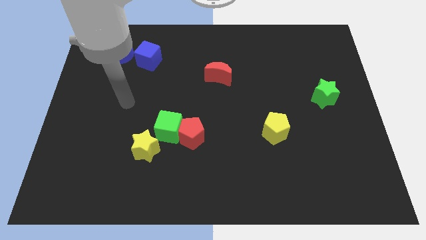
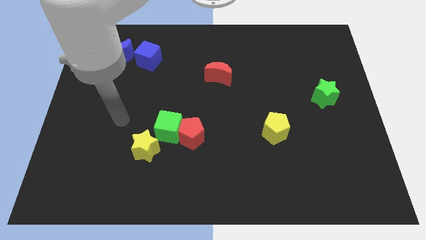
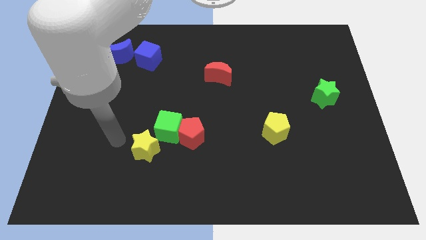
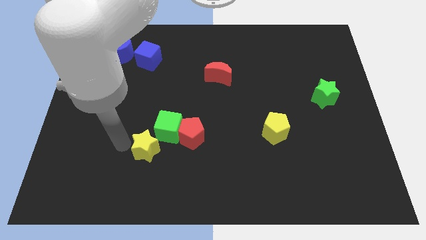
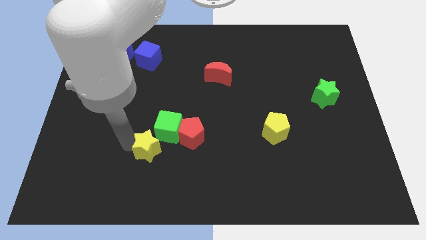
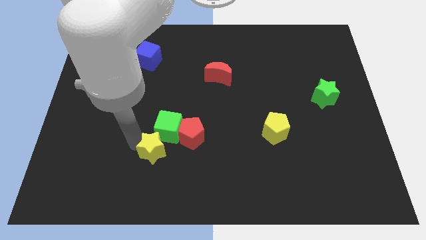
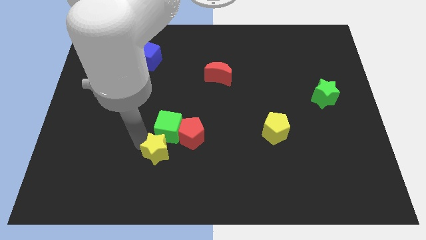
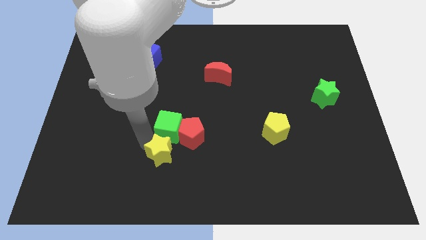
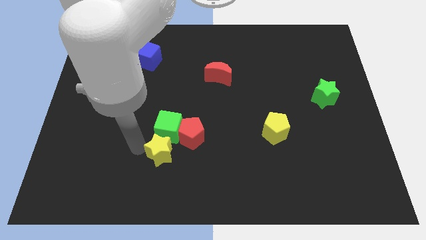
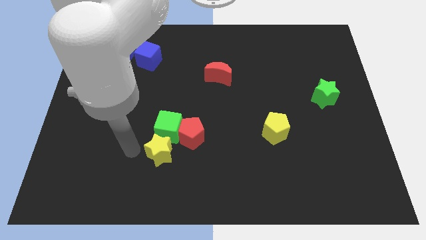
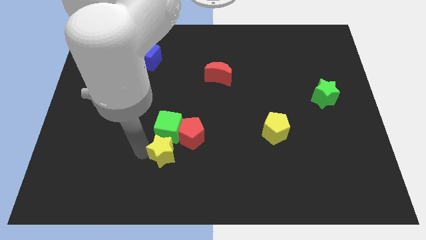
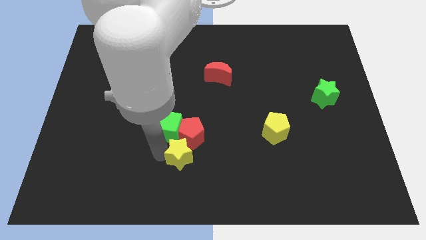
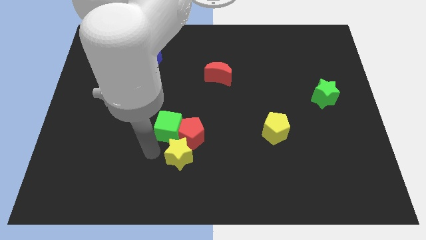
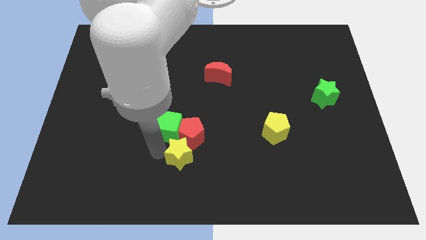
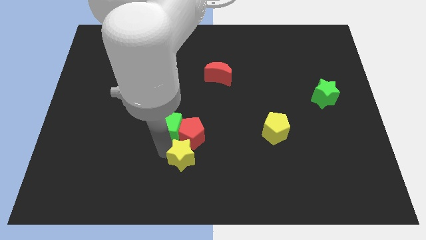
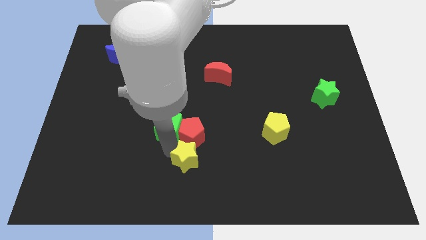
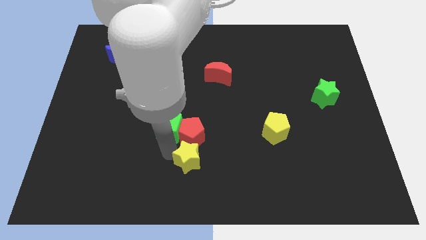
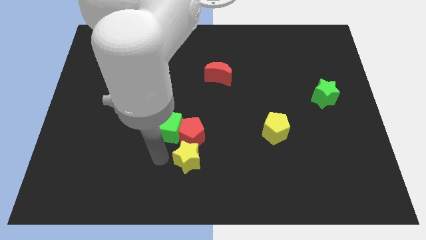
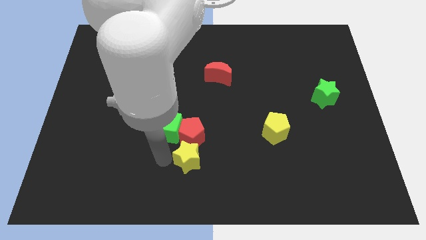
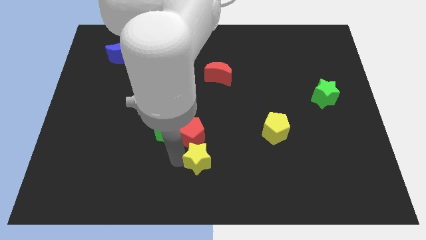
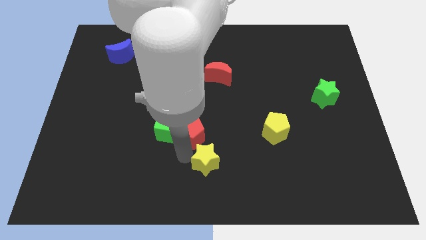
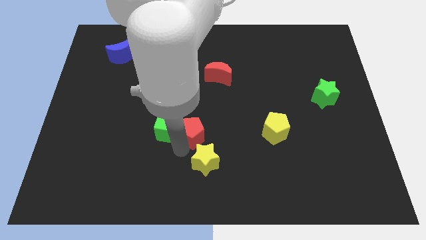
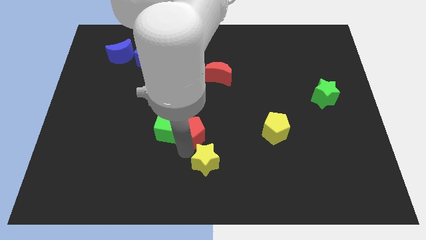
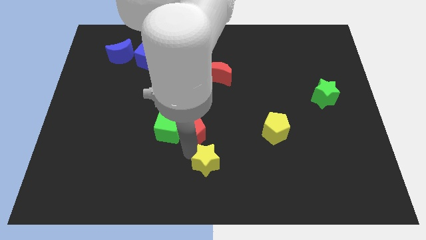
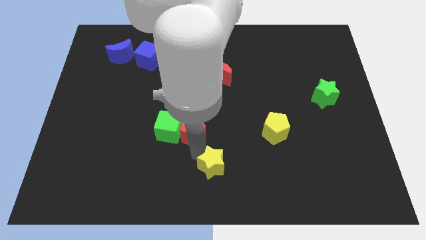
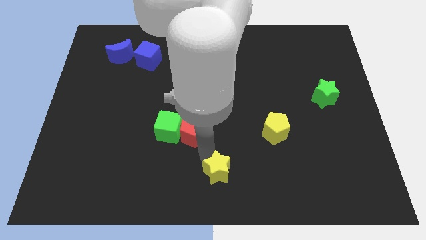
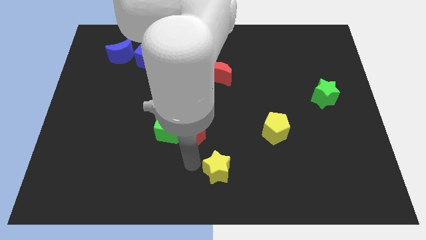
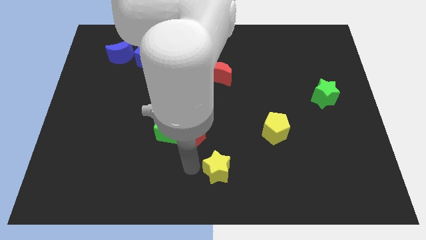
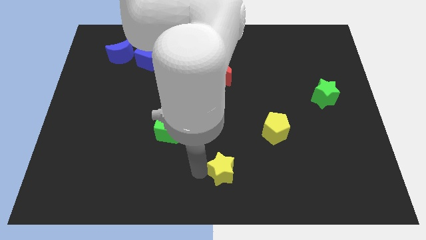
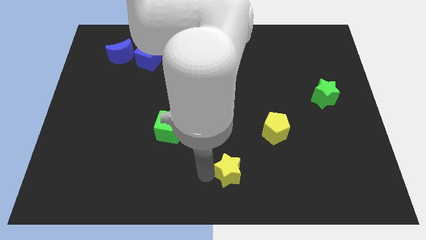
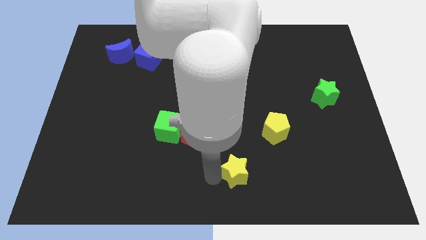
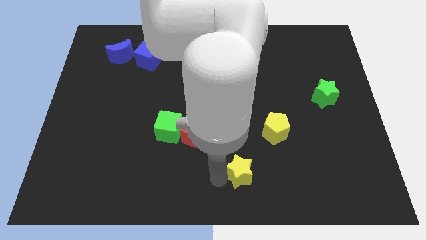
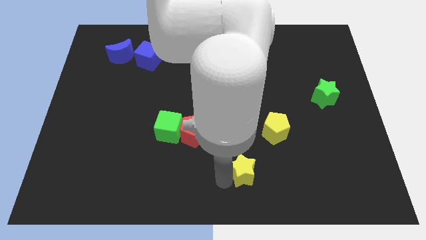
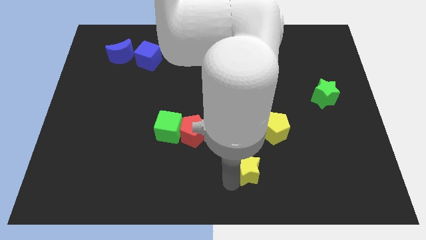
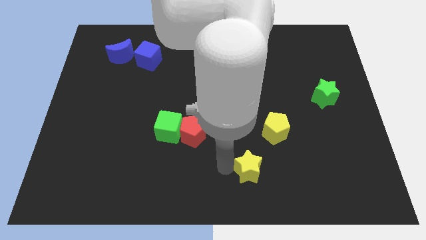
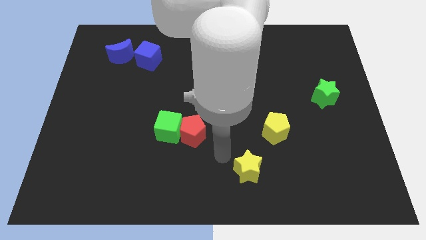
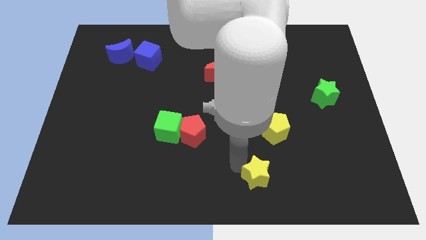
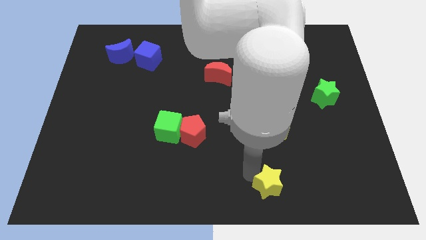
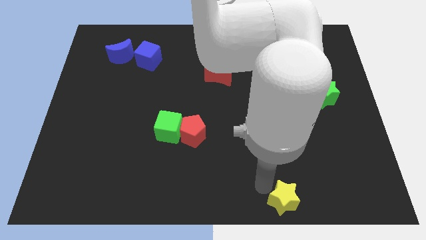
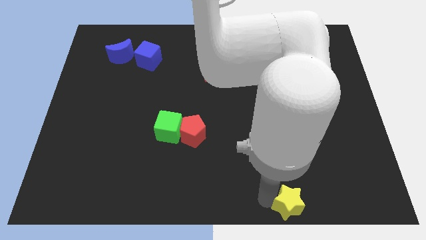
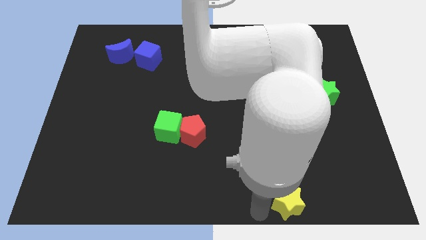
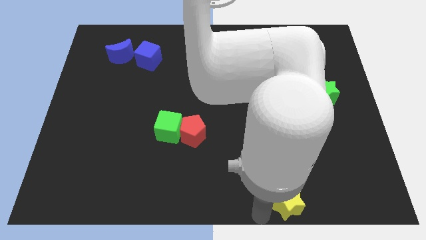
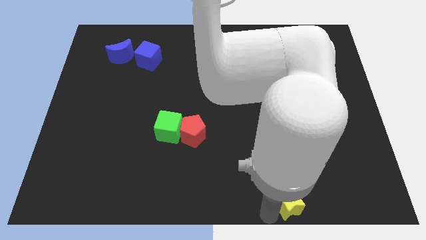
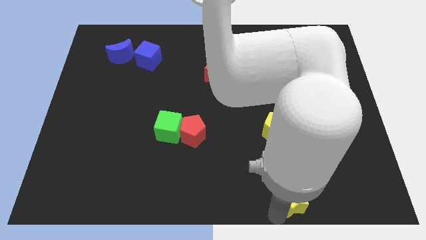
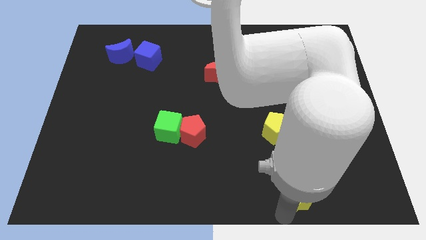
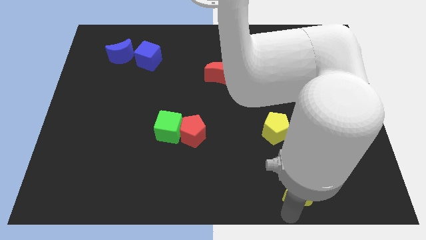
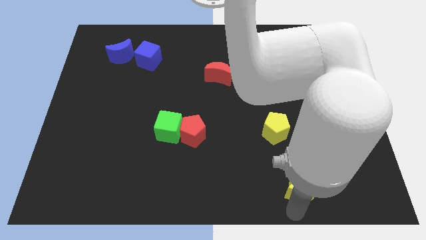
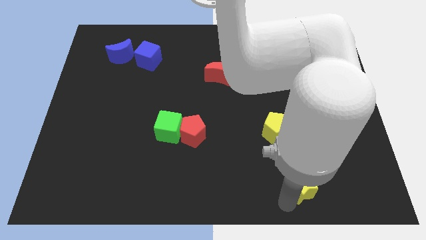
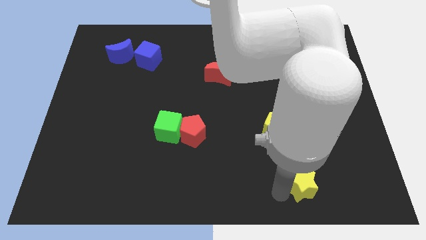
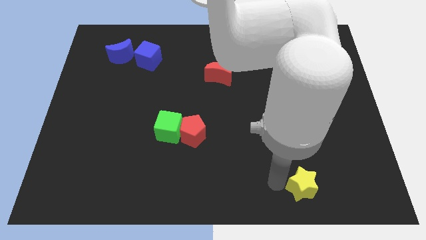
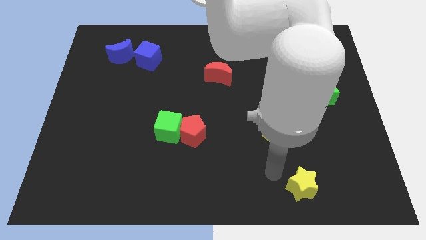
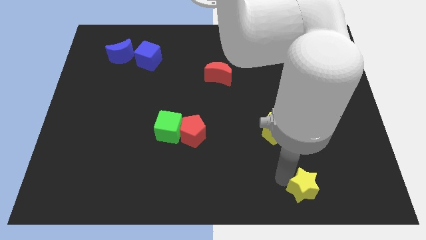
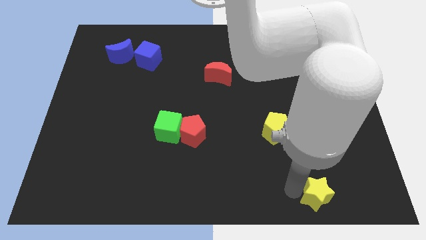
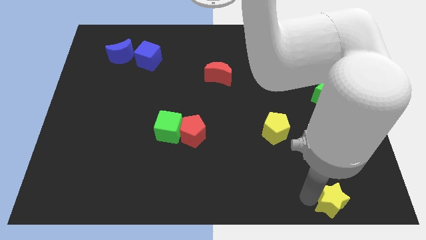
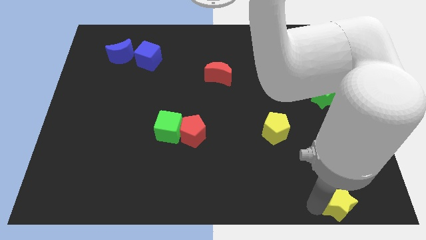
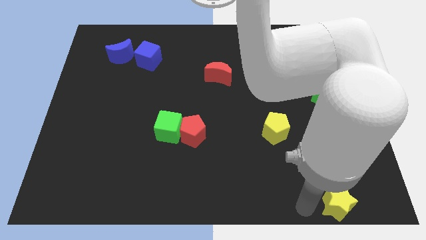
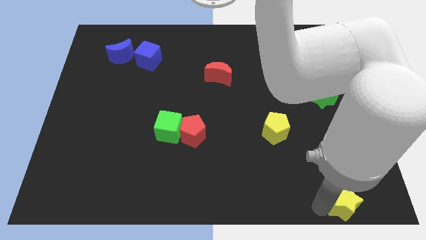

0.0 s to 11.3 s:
push the yellow star to the bottom right corner

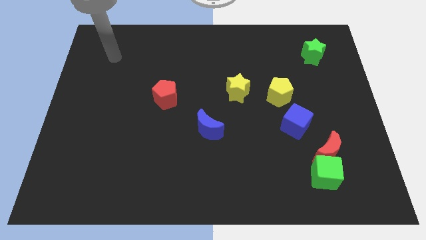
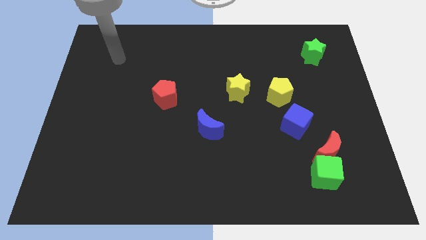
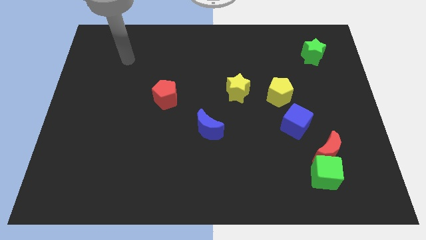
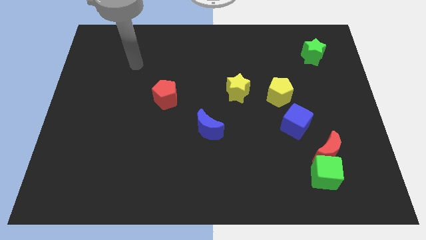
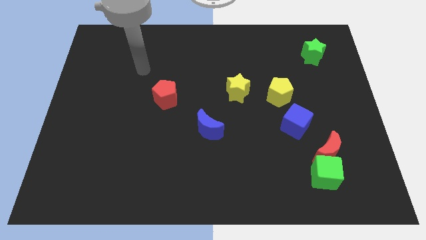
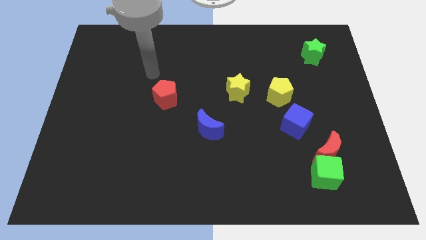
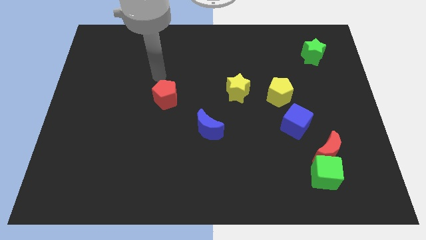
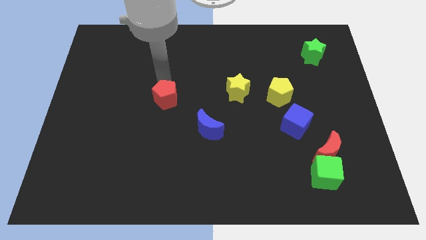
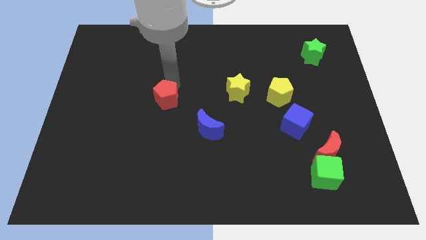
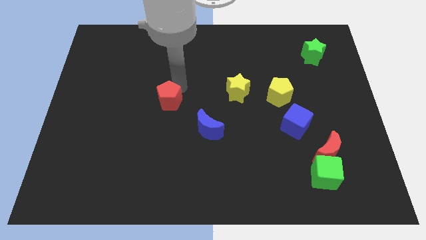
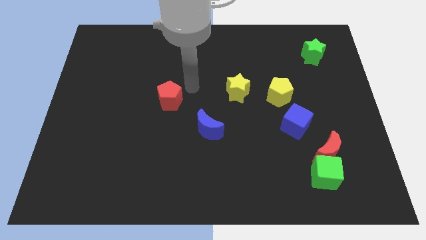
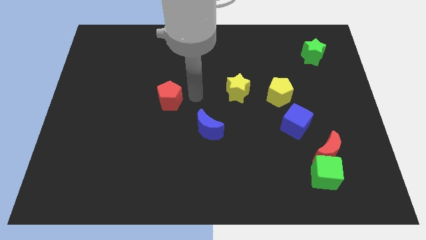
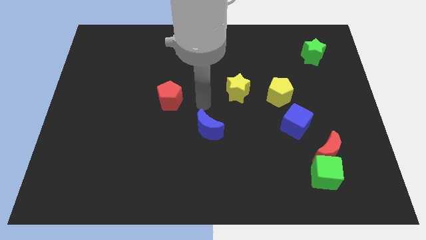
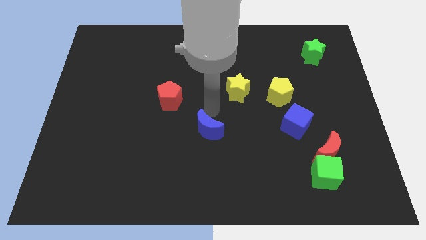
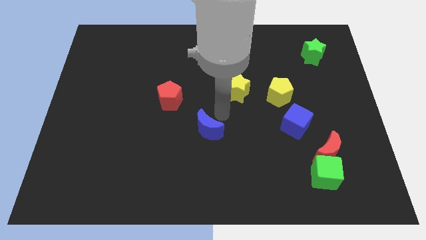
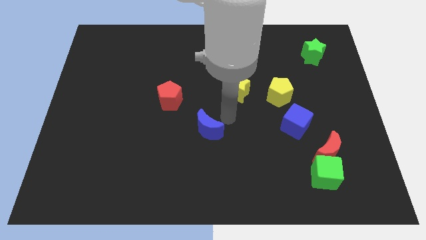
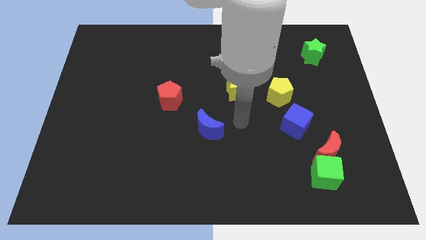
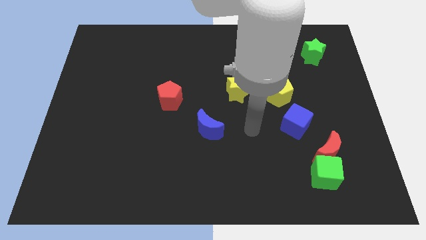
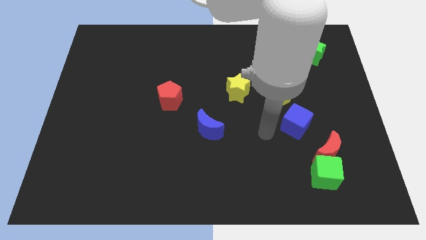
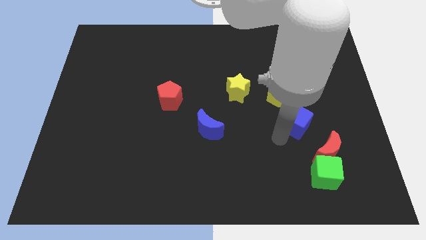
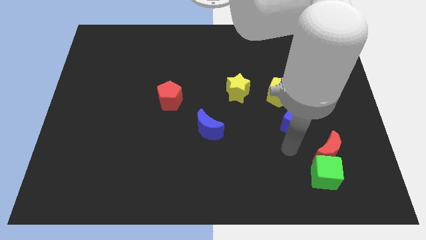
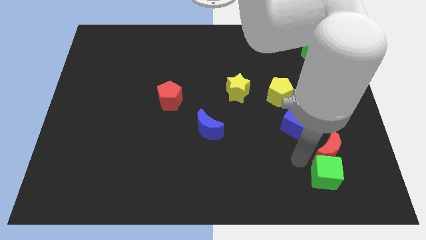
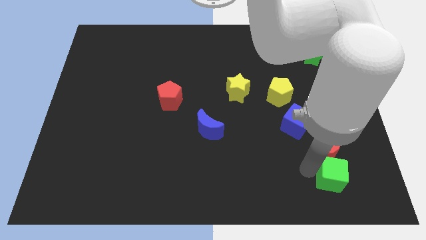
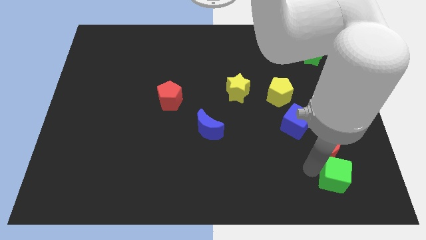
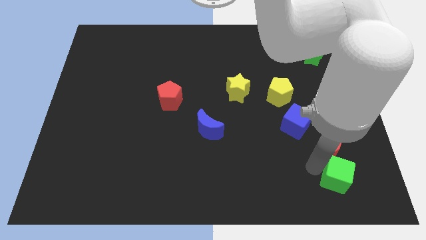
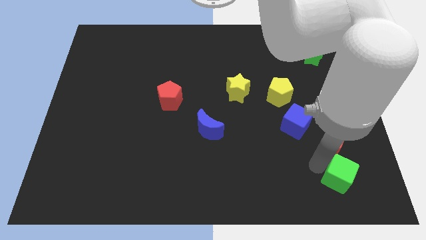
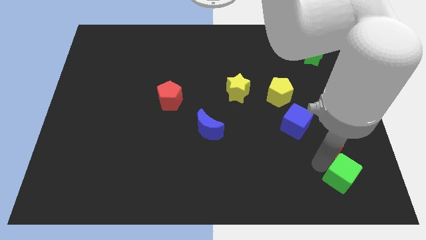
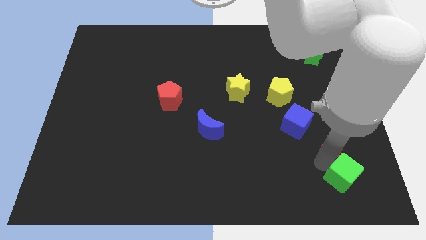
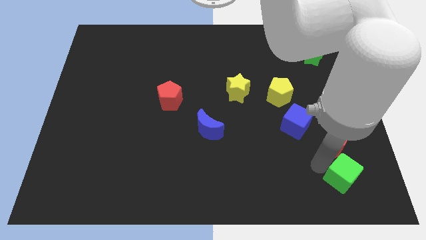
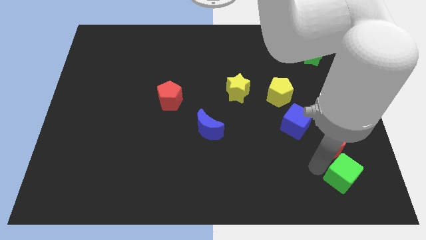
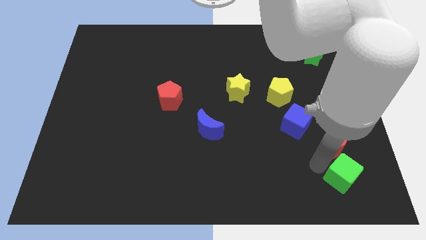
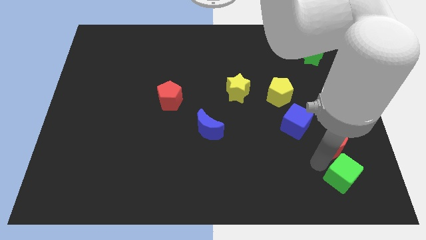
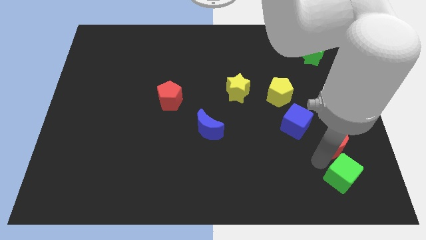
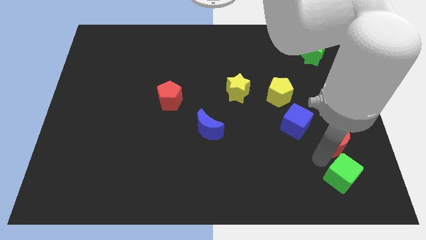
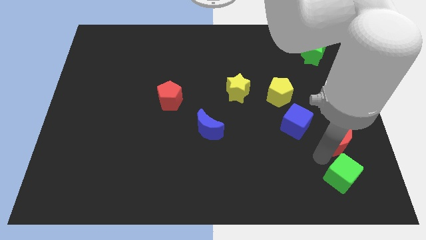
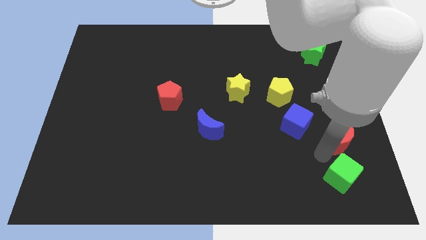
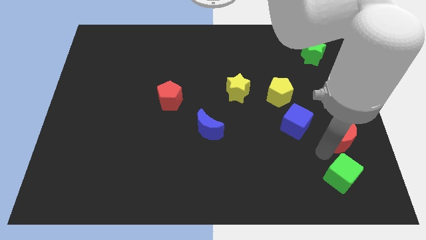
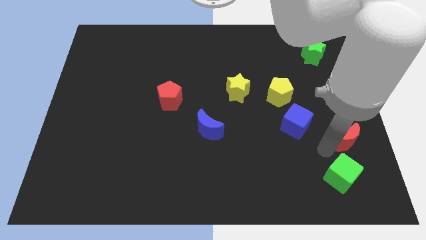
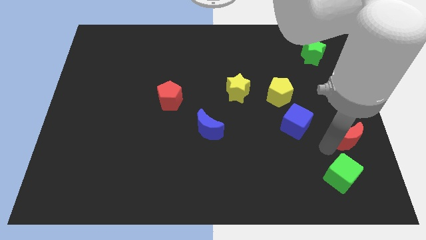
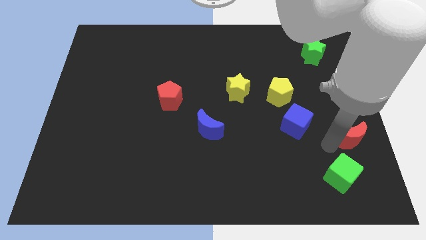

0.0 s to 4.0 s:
move the red moon to the right side of the board
